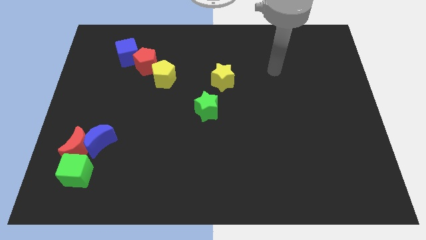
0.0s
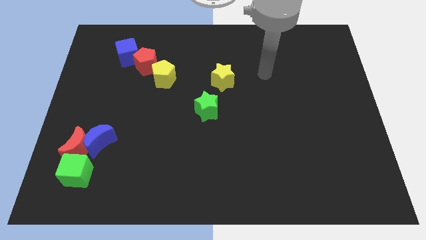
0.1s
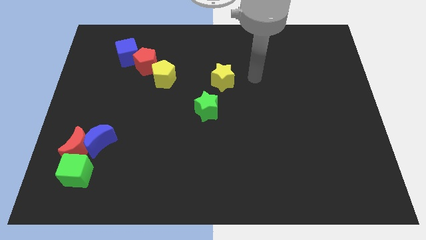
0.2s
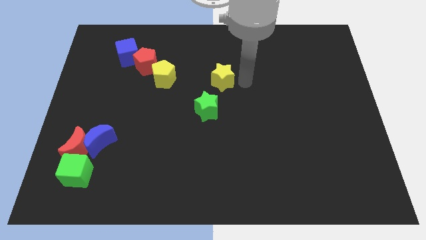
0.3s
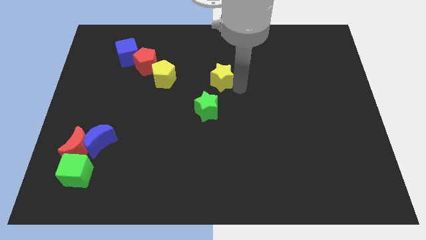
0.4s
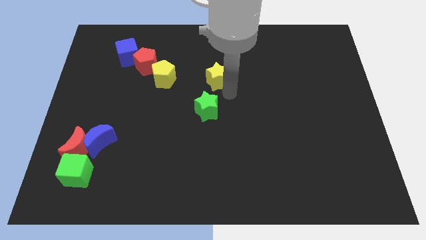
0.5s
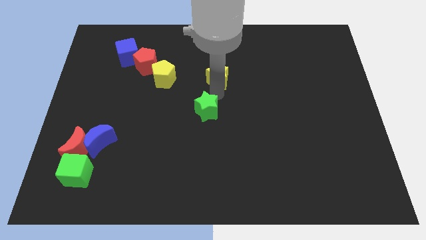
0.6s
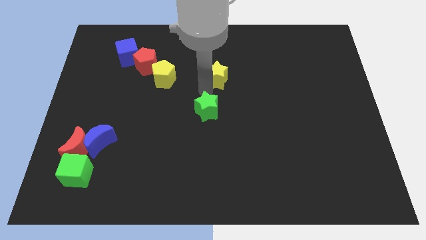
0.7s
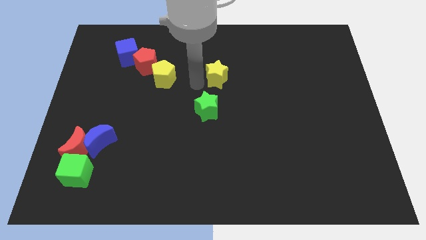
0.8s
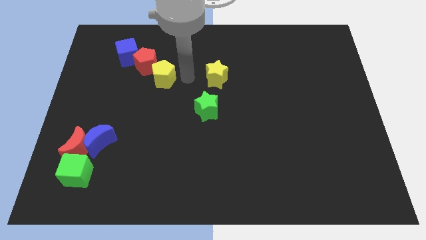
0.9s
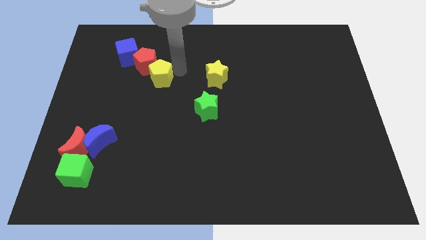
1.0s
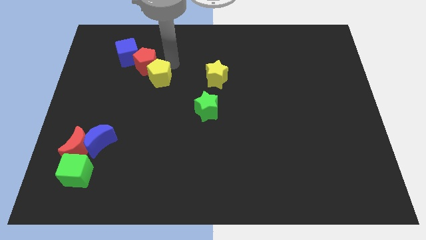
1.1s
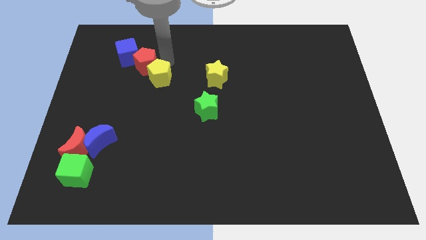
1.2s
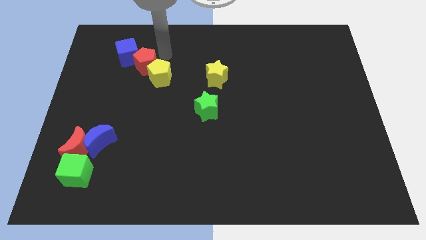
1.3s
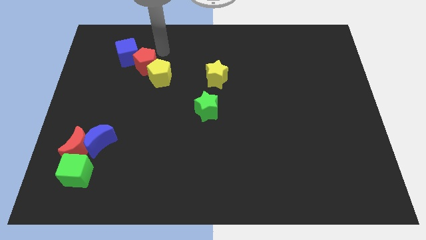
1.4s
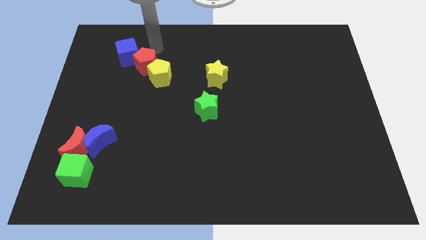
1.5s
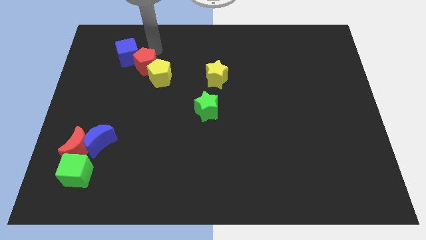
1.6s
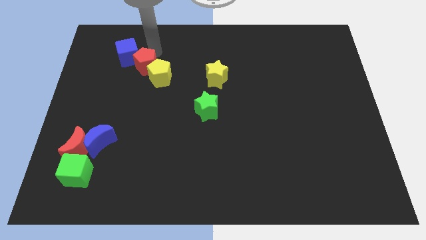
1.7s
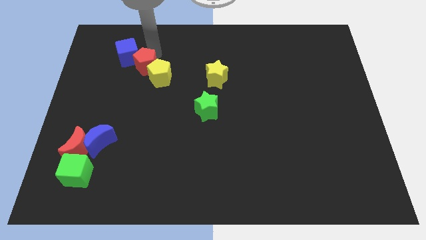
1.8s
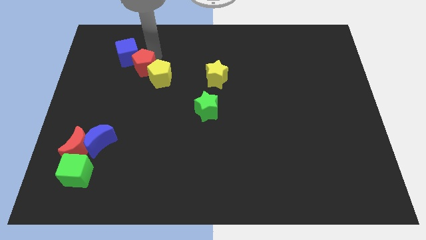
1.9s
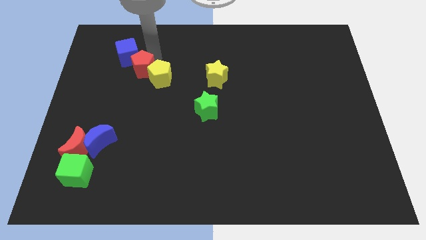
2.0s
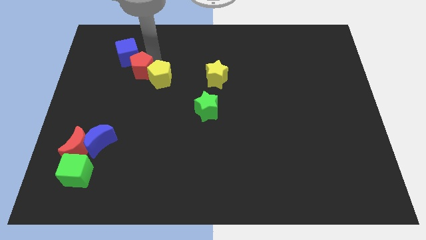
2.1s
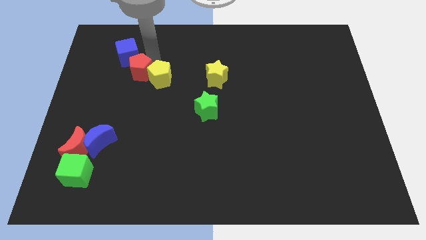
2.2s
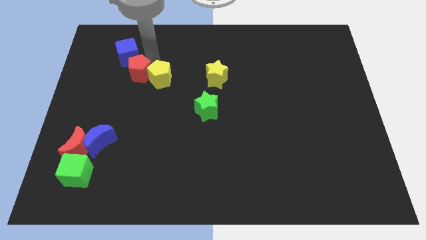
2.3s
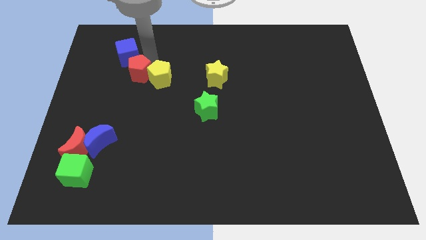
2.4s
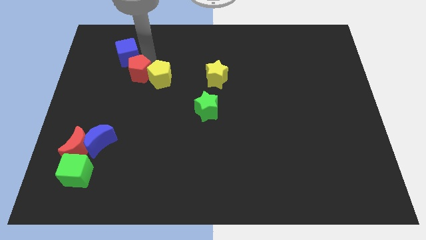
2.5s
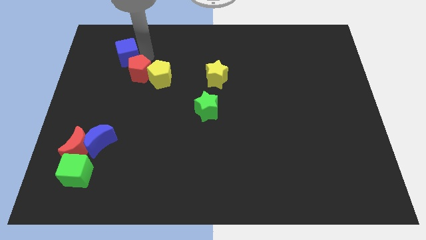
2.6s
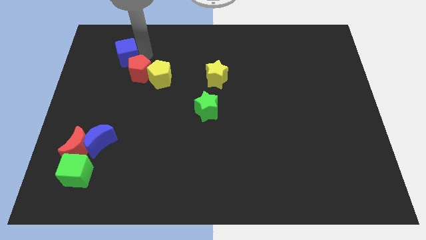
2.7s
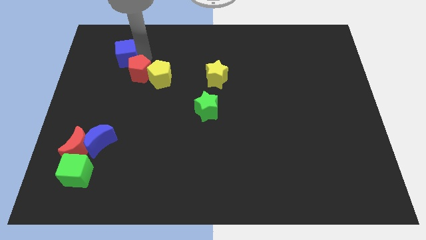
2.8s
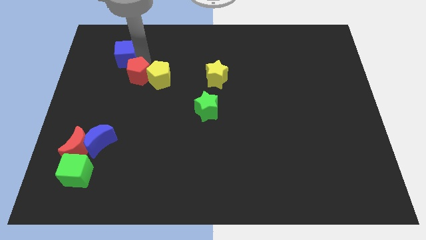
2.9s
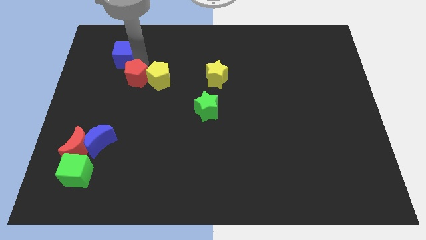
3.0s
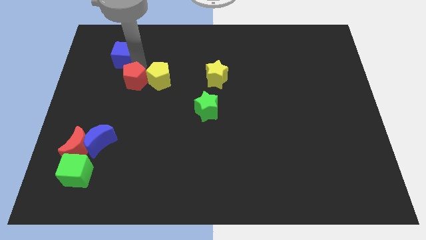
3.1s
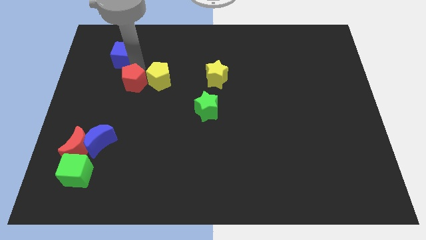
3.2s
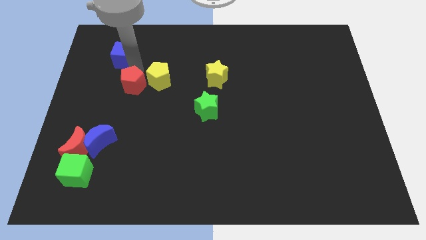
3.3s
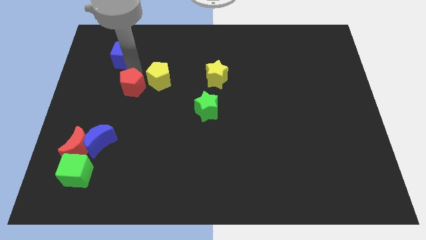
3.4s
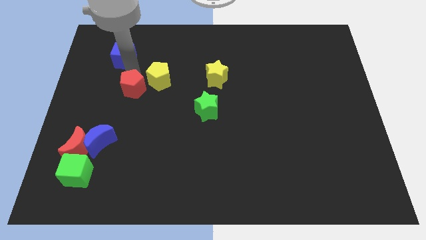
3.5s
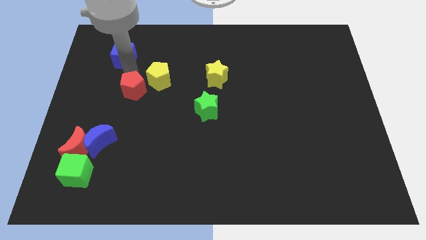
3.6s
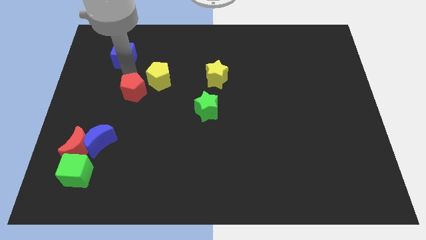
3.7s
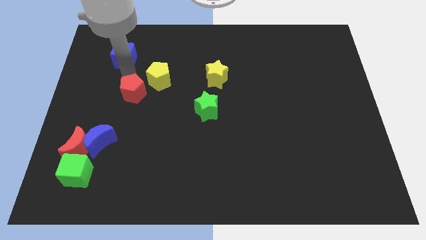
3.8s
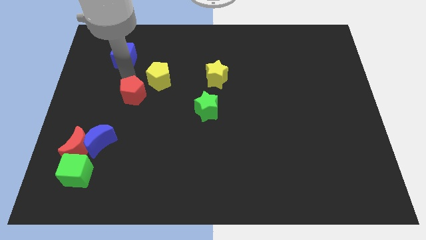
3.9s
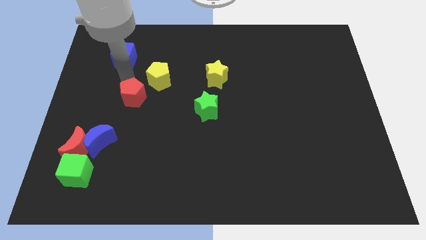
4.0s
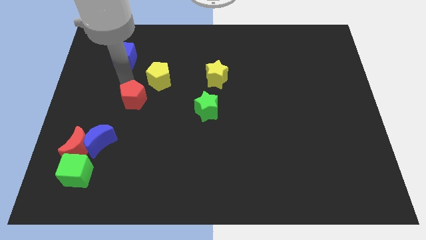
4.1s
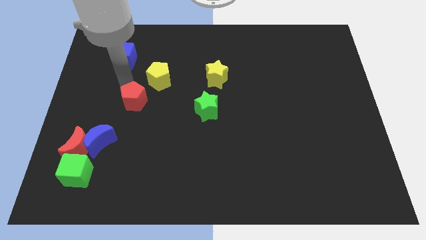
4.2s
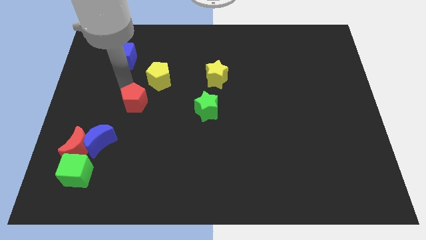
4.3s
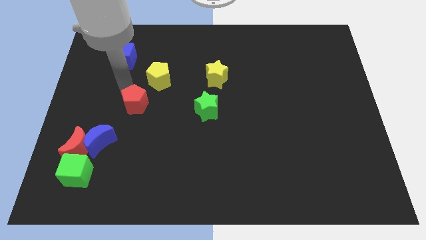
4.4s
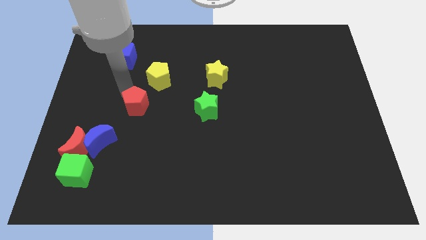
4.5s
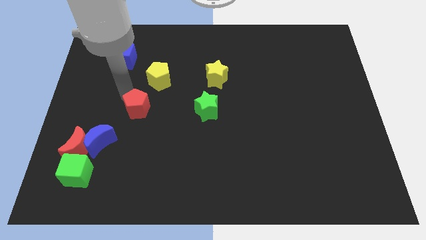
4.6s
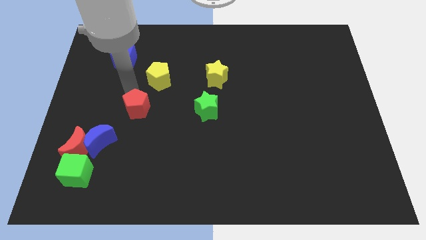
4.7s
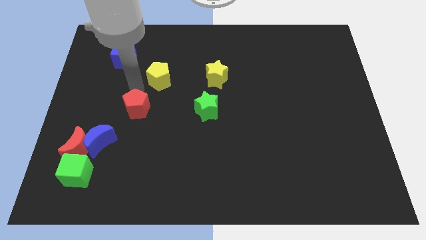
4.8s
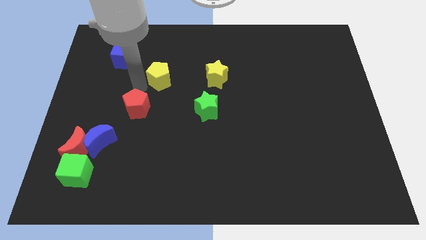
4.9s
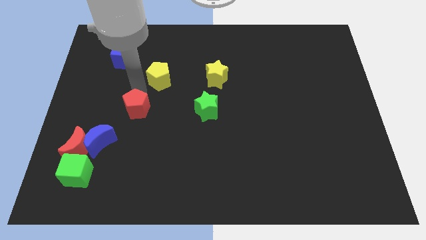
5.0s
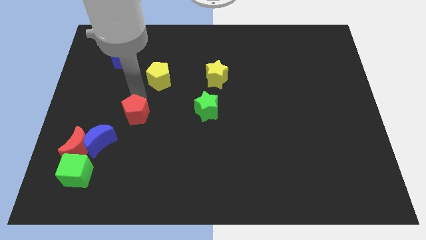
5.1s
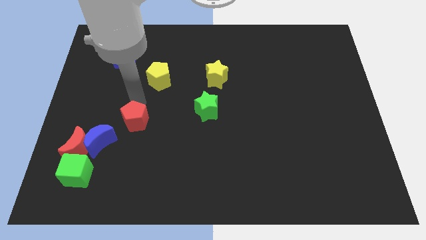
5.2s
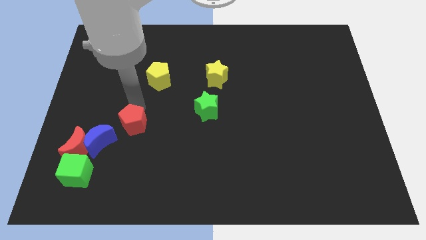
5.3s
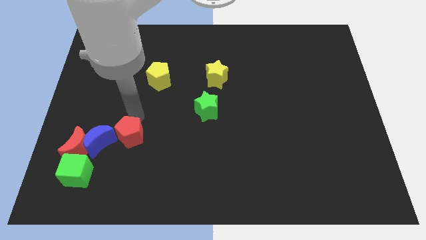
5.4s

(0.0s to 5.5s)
slide the red pentagon downwards

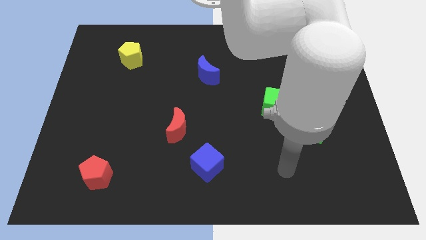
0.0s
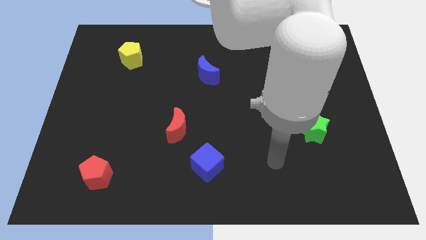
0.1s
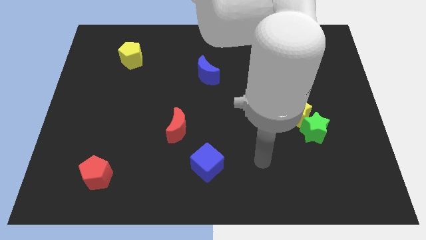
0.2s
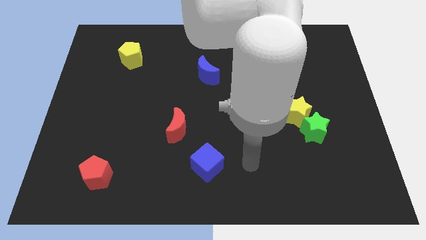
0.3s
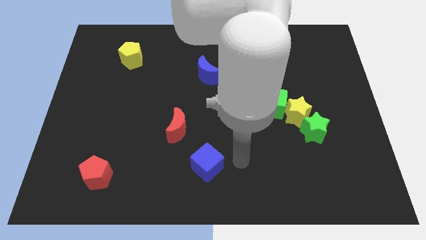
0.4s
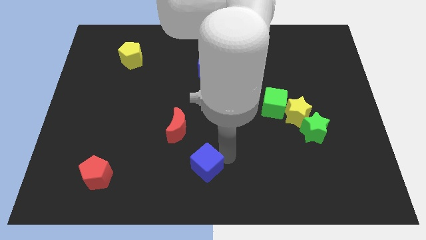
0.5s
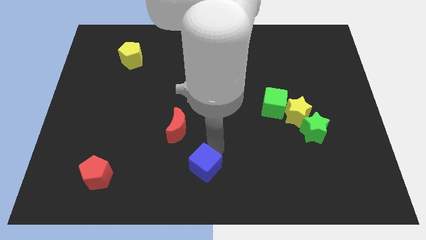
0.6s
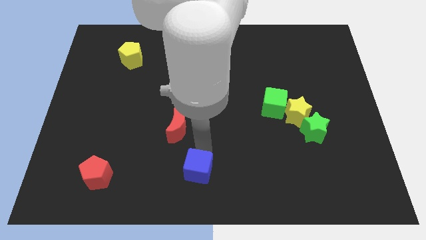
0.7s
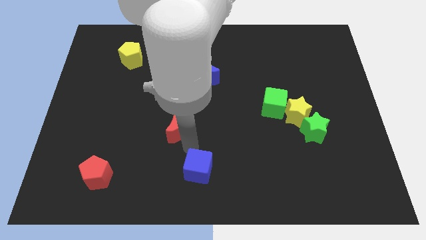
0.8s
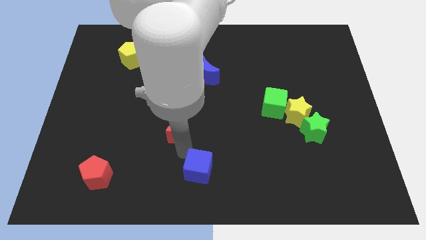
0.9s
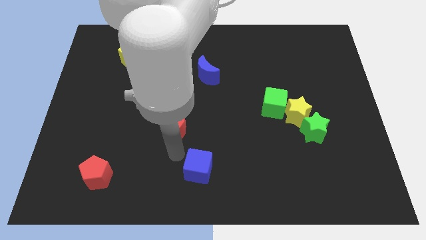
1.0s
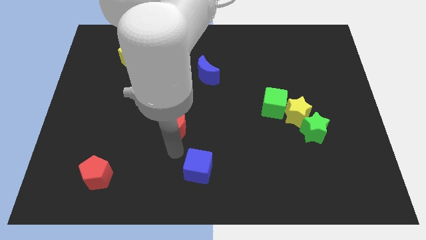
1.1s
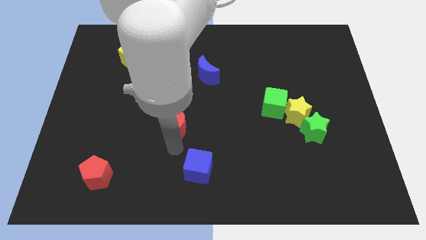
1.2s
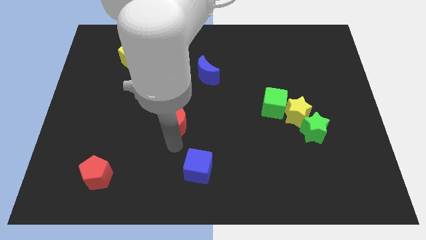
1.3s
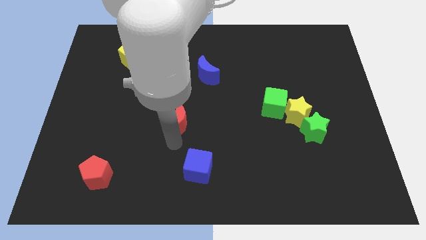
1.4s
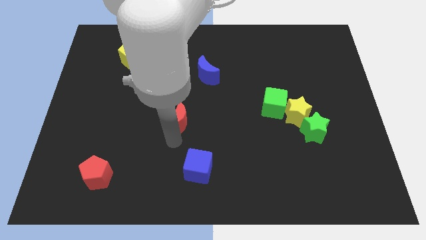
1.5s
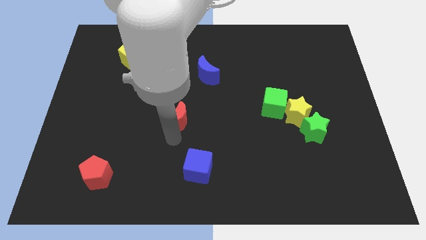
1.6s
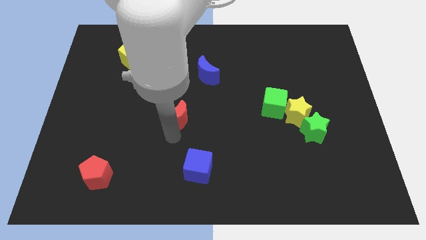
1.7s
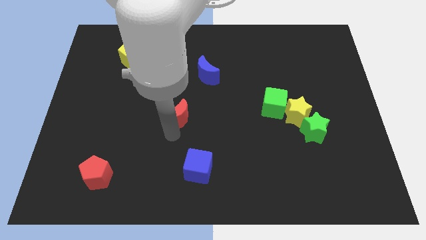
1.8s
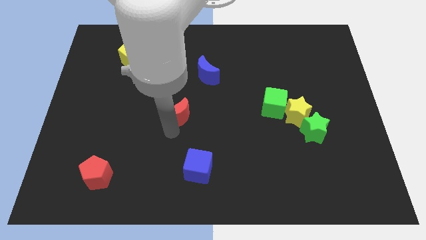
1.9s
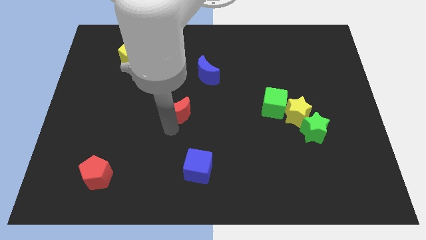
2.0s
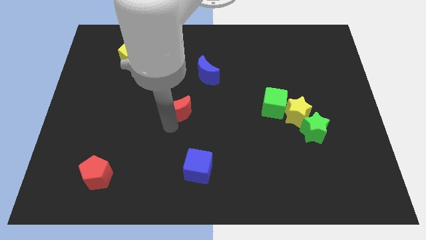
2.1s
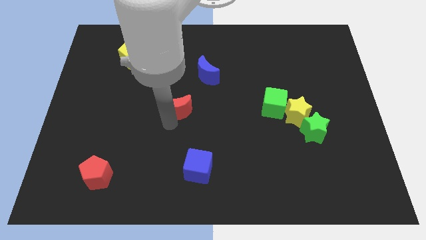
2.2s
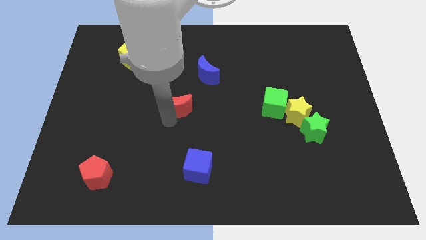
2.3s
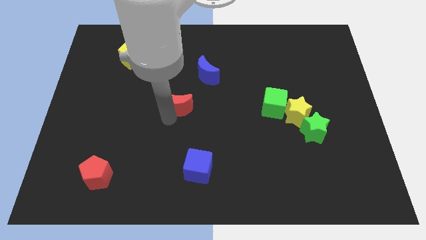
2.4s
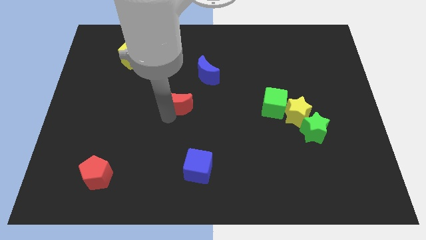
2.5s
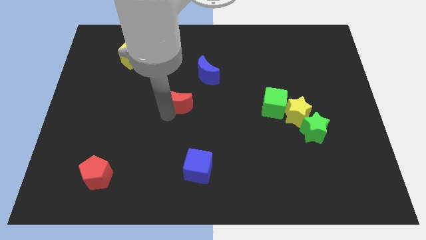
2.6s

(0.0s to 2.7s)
move the red moon slightly upwards
